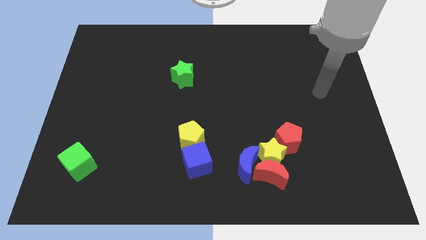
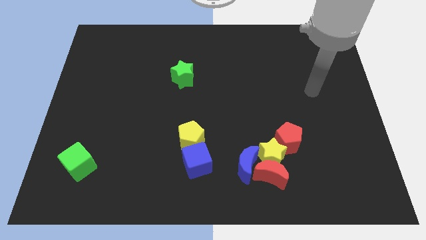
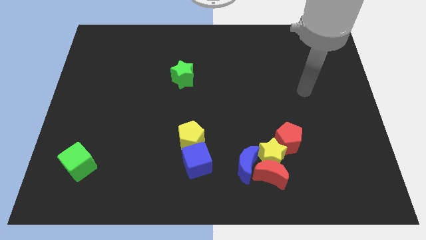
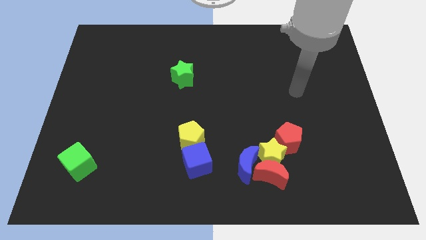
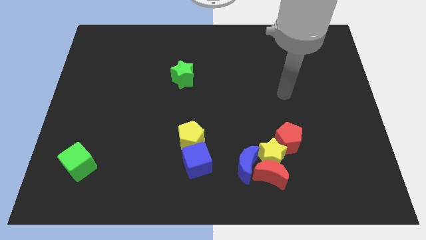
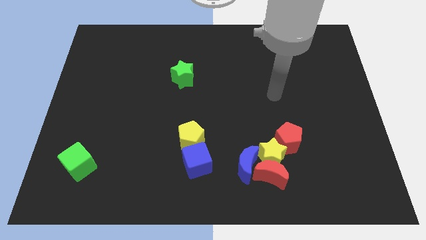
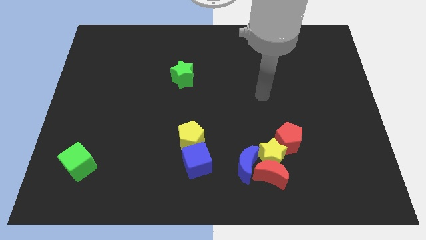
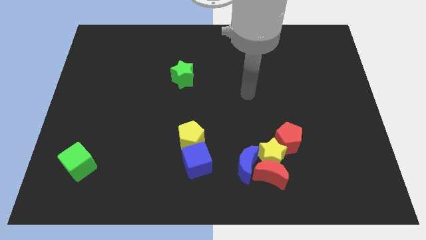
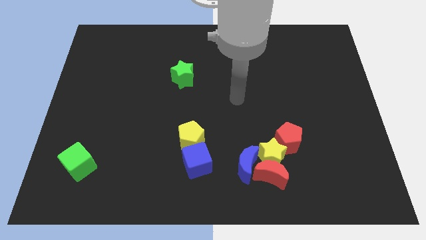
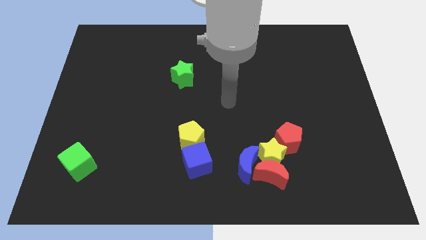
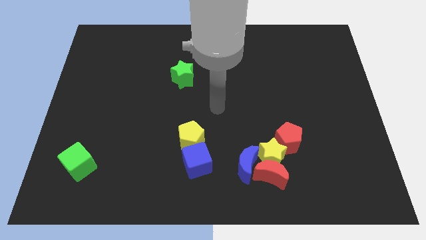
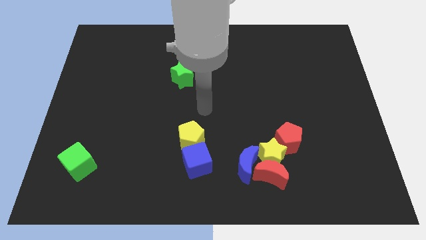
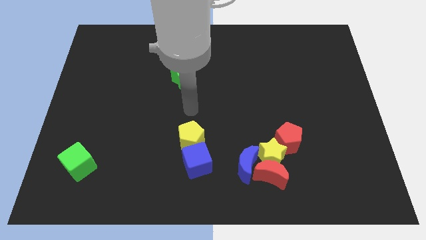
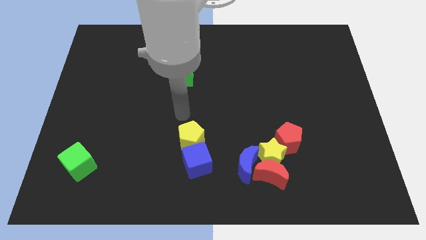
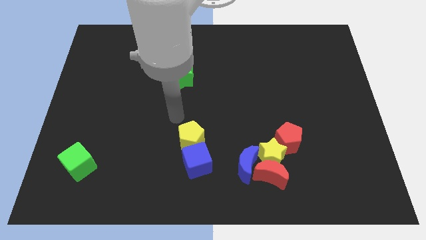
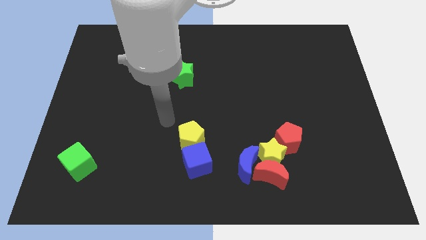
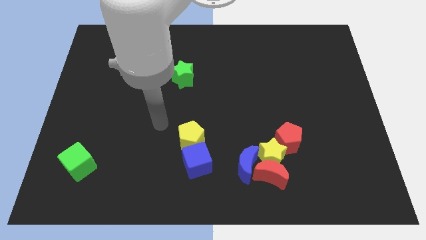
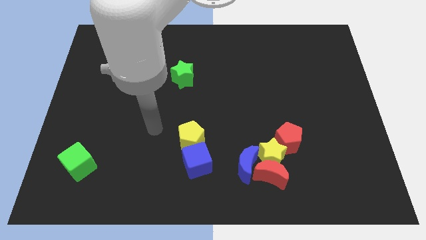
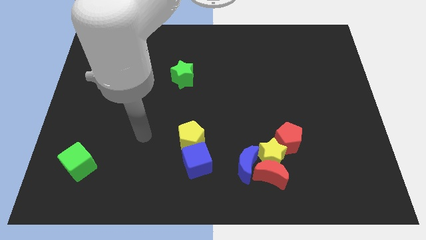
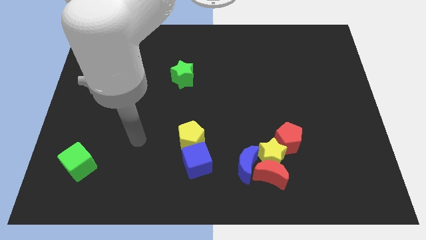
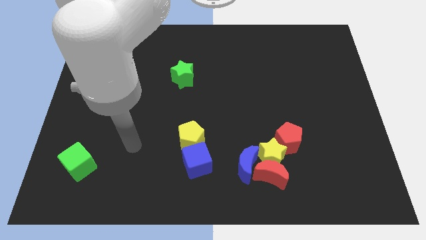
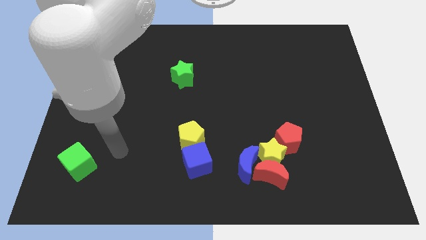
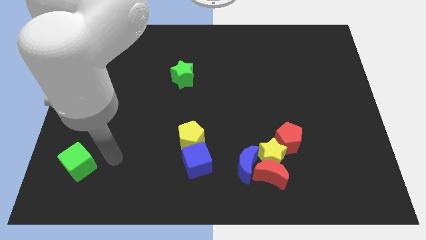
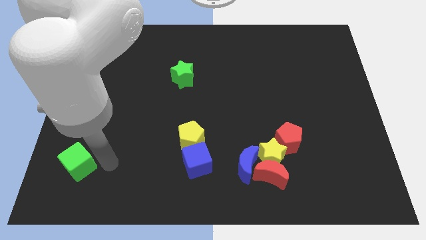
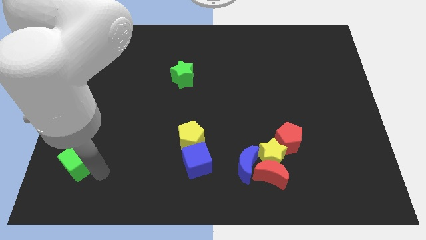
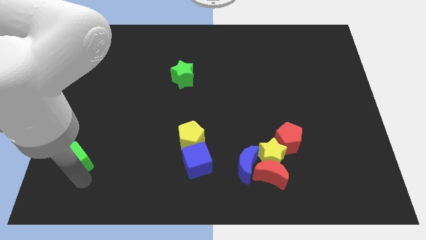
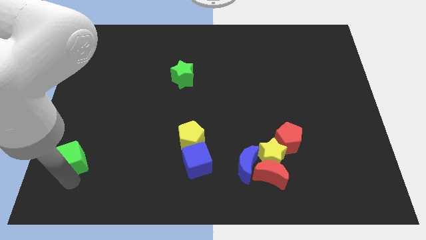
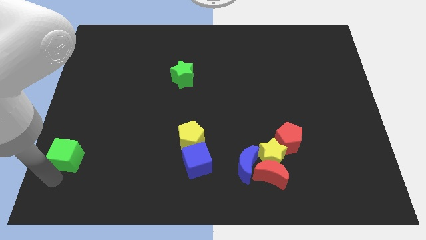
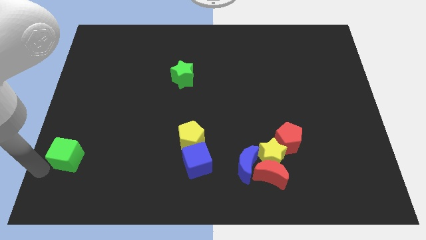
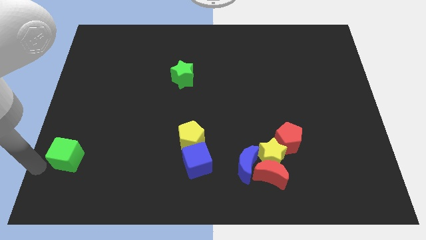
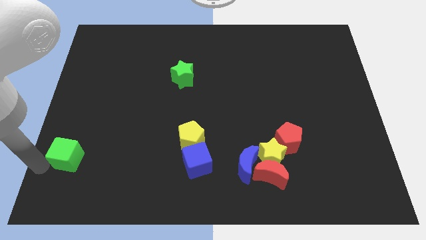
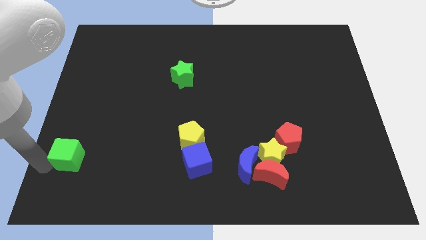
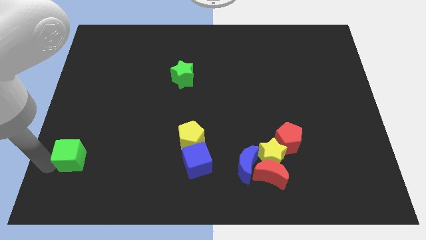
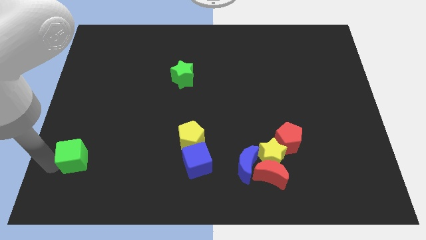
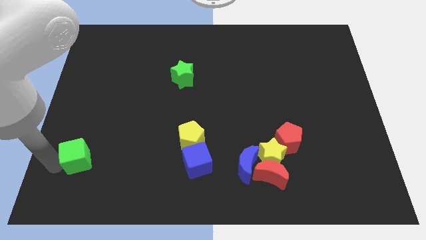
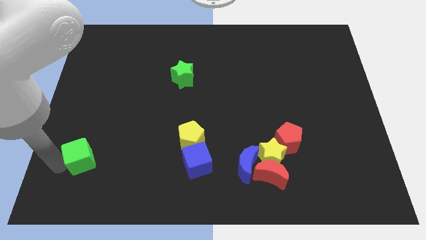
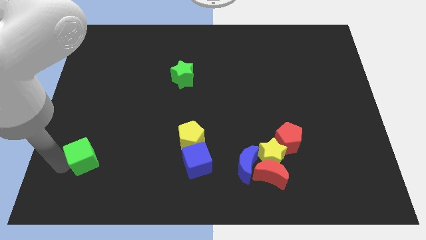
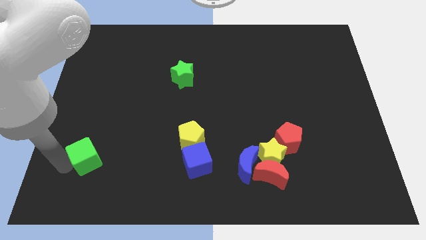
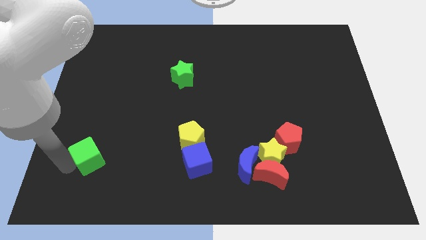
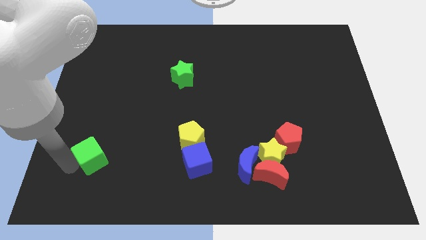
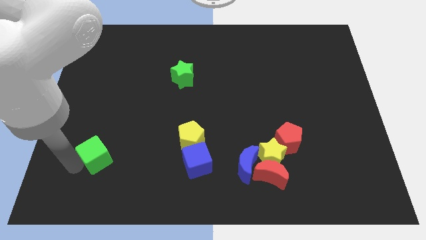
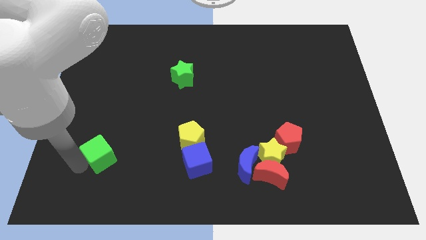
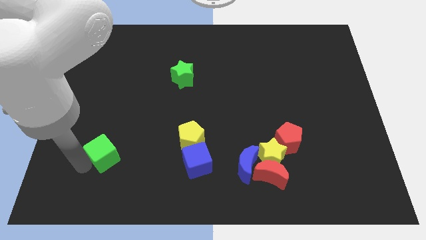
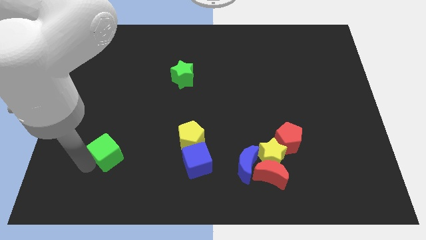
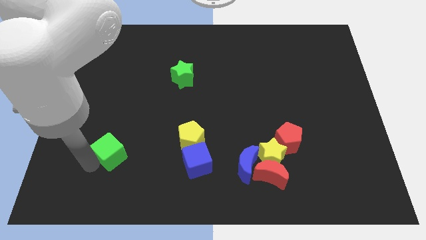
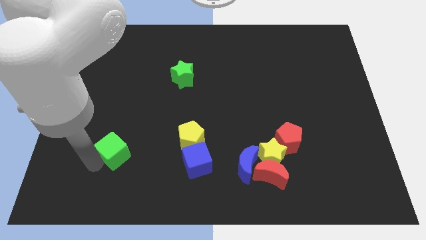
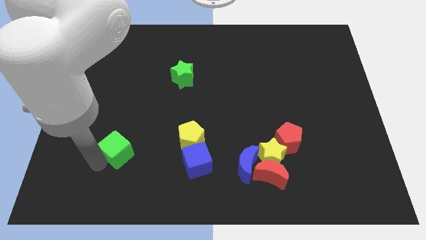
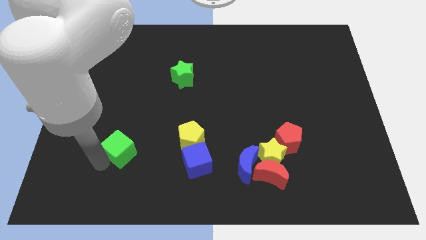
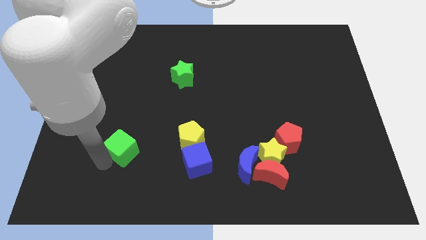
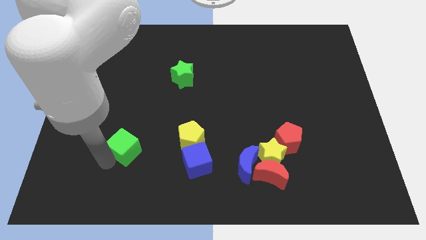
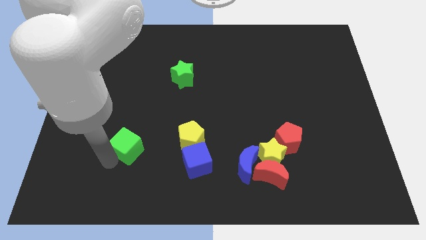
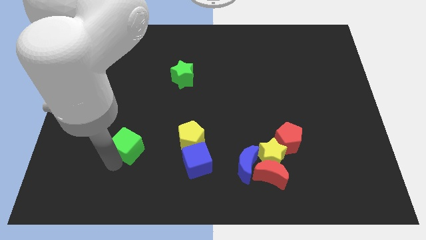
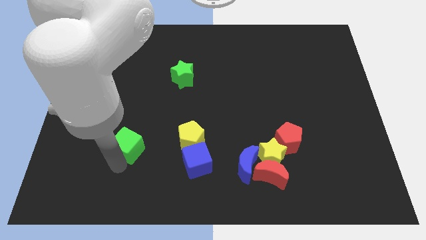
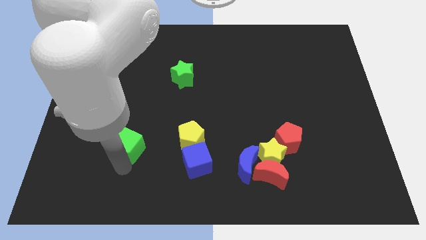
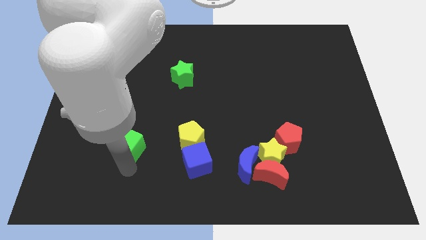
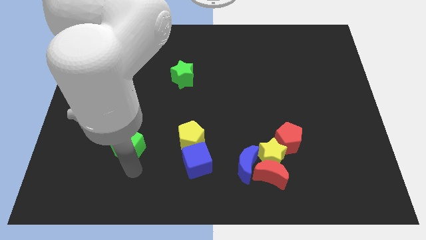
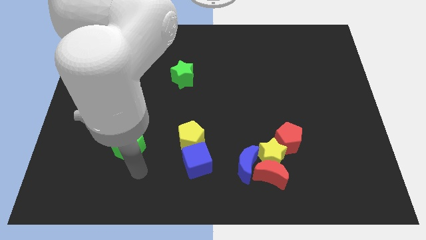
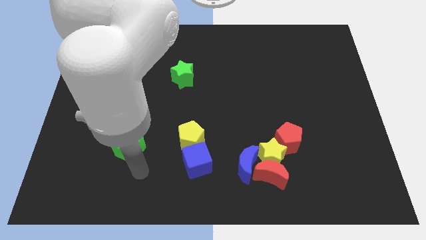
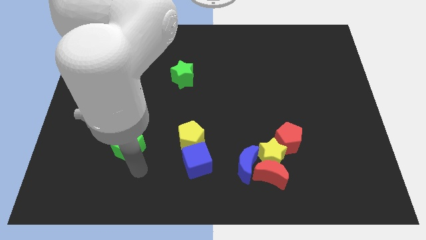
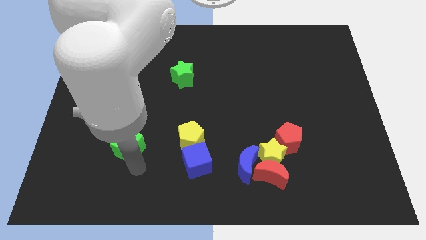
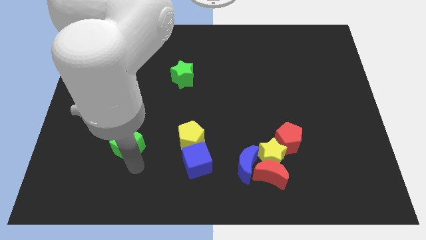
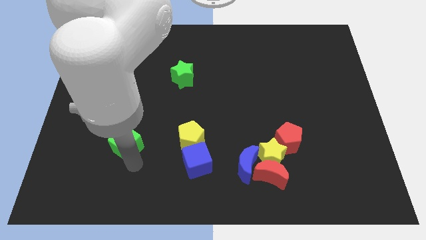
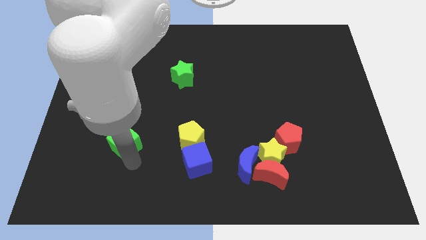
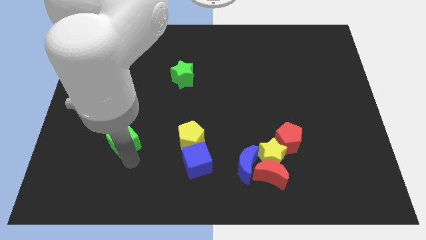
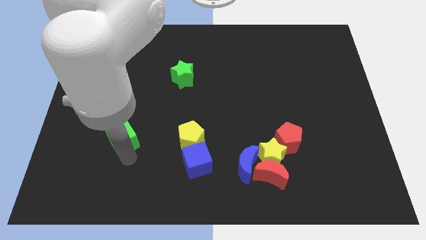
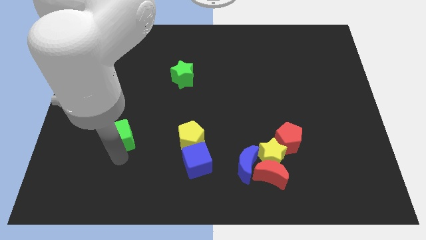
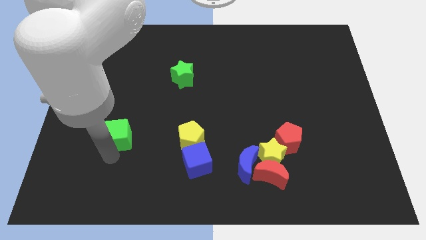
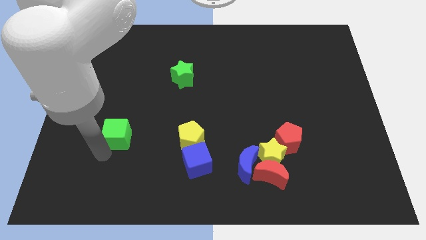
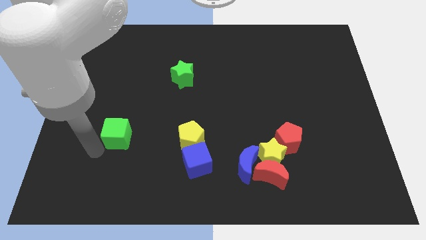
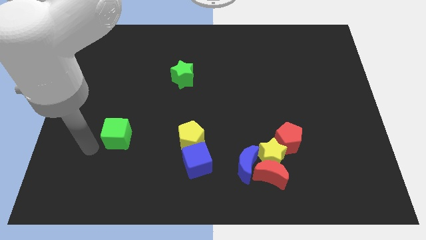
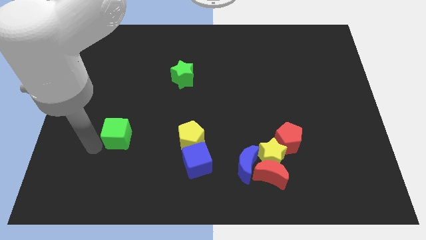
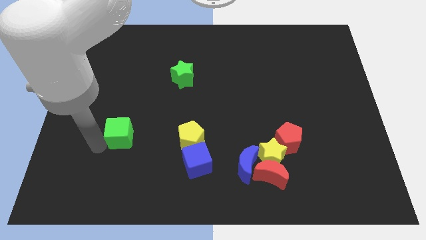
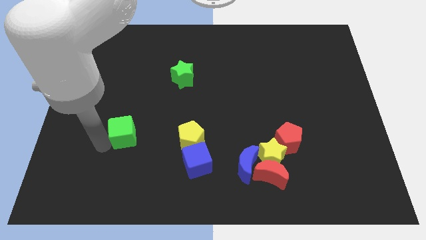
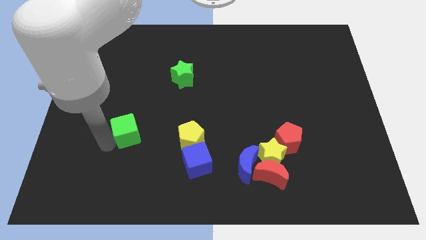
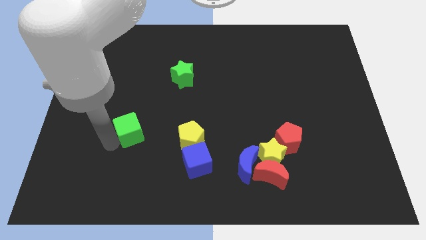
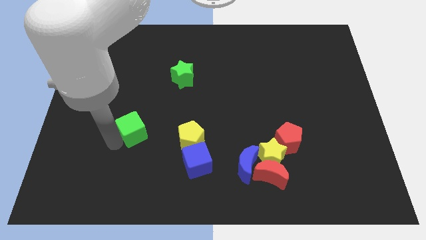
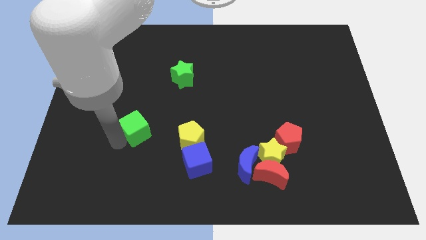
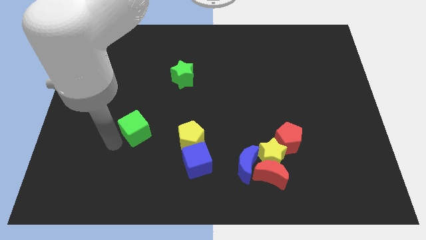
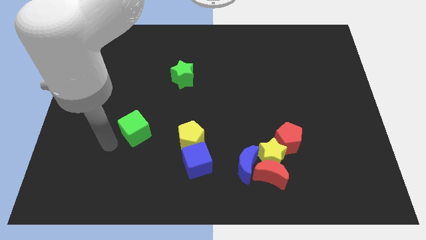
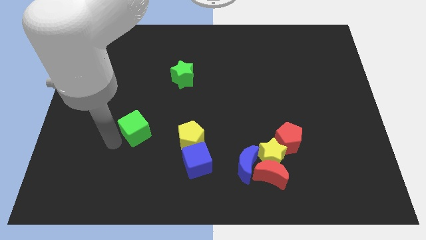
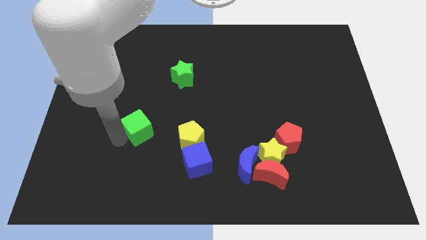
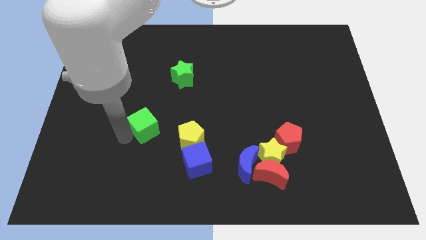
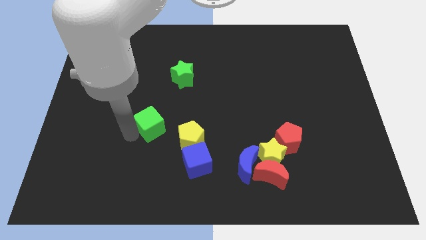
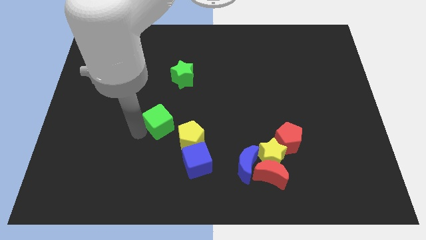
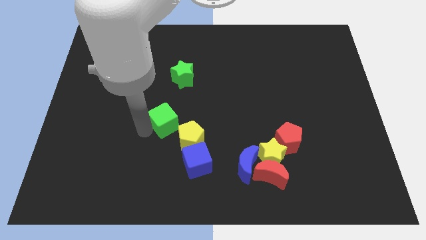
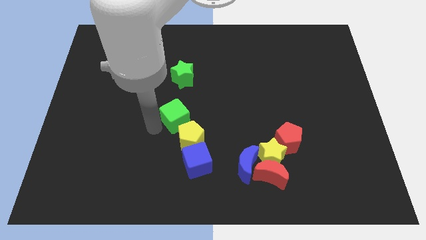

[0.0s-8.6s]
move the green cube to the middle
